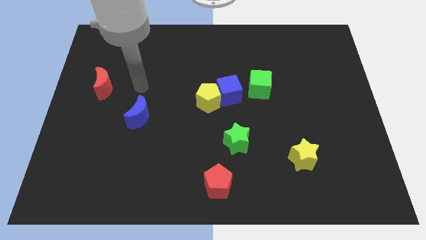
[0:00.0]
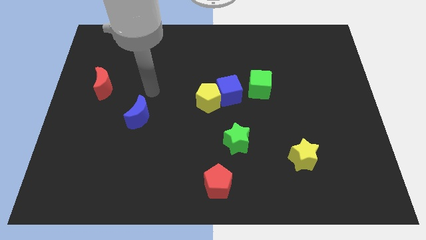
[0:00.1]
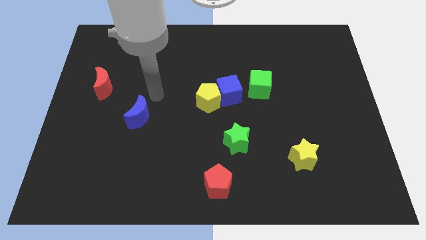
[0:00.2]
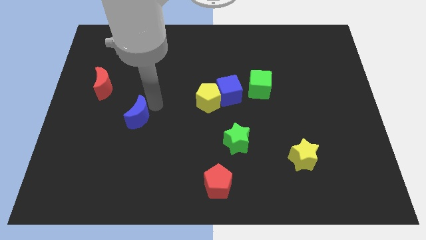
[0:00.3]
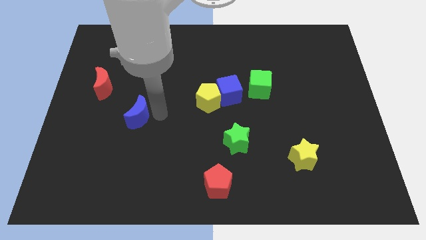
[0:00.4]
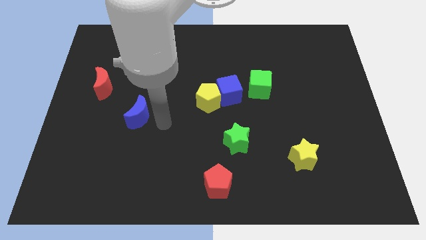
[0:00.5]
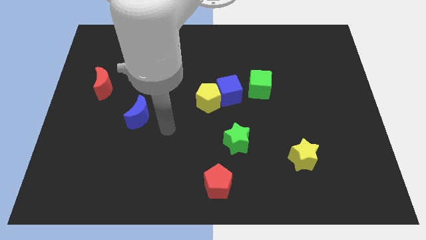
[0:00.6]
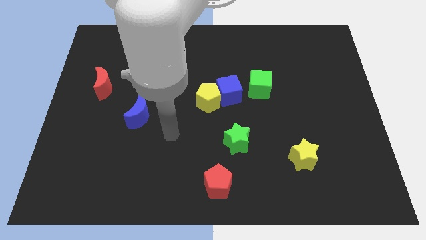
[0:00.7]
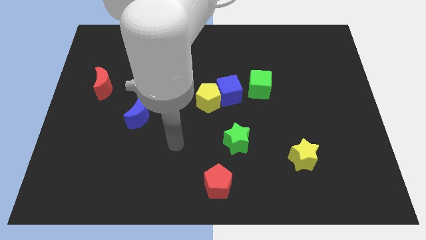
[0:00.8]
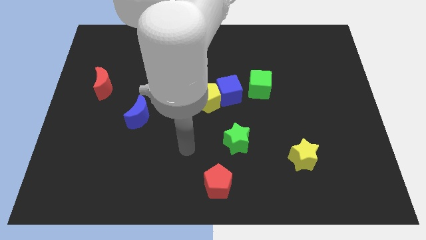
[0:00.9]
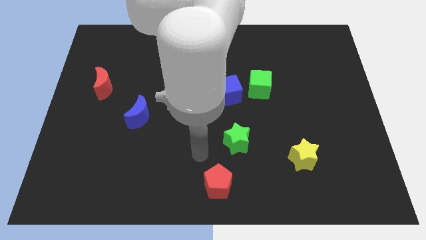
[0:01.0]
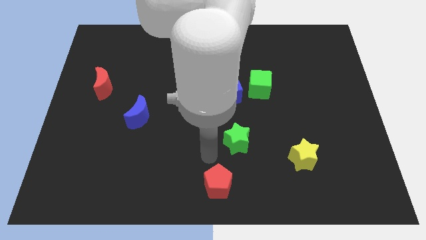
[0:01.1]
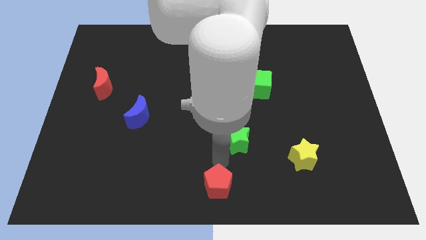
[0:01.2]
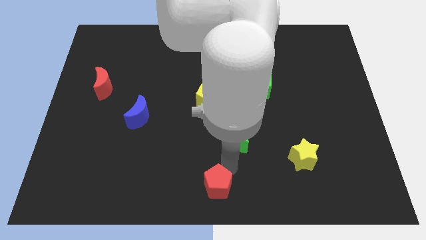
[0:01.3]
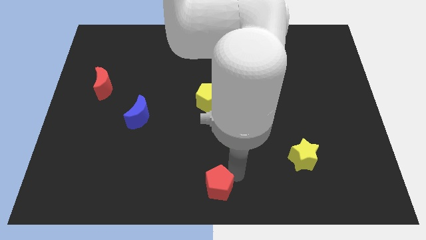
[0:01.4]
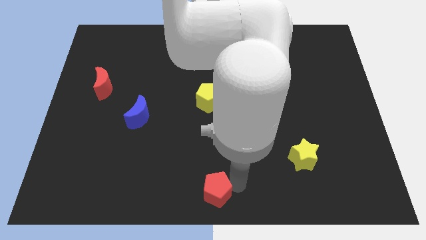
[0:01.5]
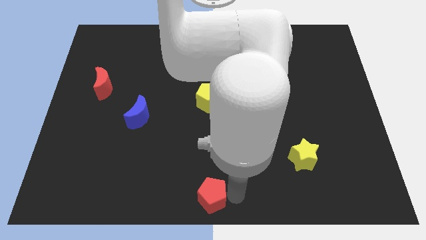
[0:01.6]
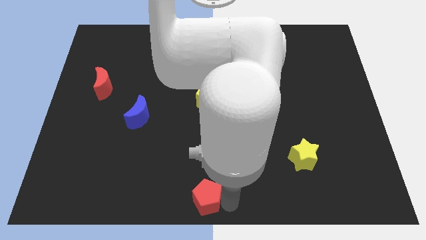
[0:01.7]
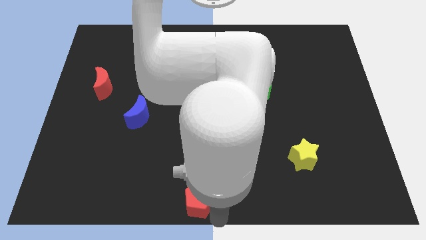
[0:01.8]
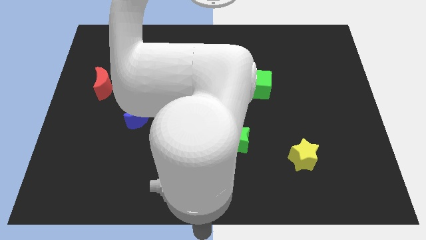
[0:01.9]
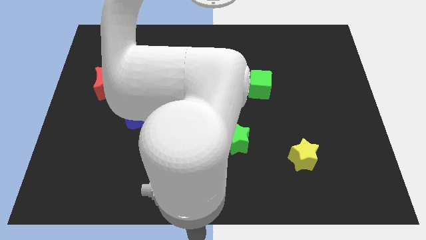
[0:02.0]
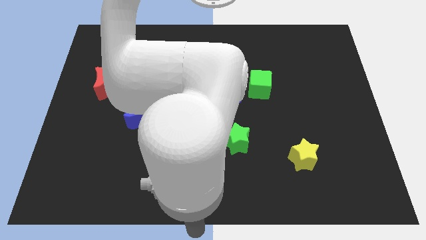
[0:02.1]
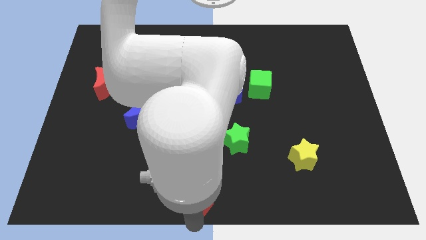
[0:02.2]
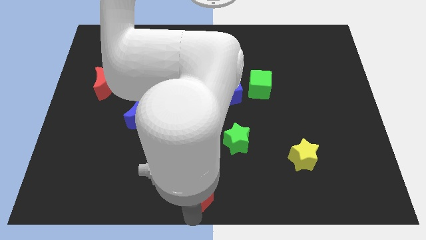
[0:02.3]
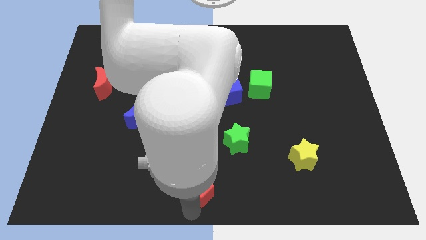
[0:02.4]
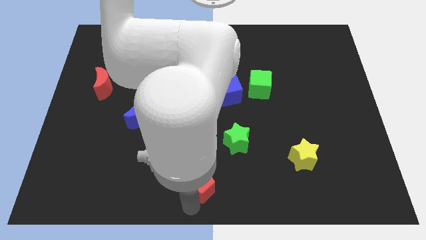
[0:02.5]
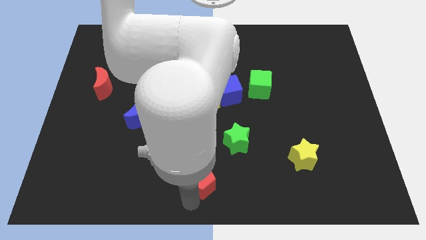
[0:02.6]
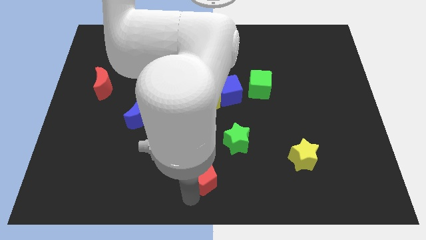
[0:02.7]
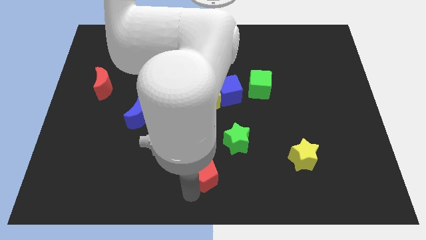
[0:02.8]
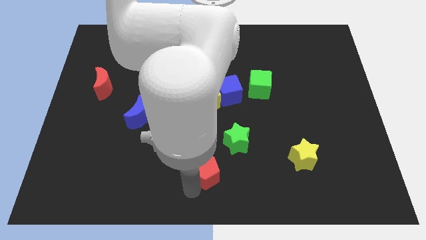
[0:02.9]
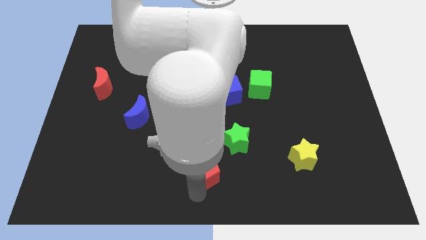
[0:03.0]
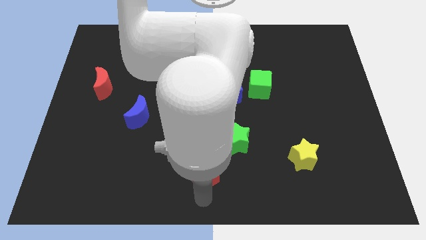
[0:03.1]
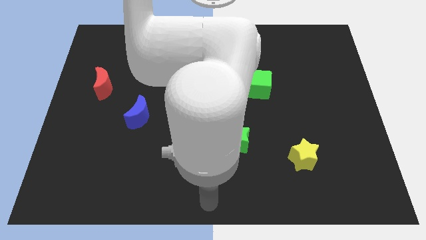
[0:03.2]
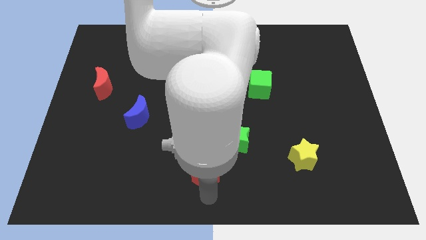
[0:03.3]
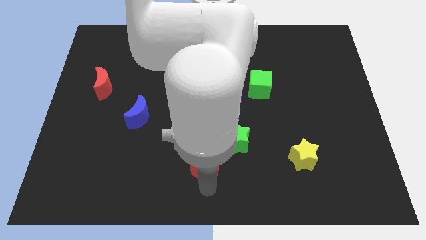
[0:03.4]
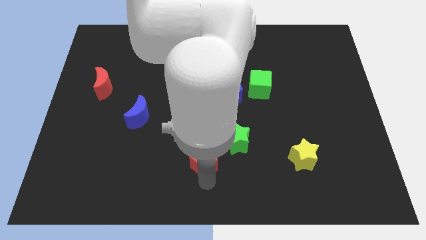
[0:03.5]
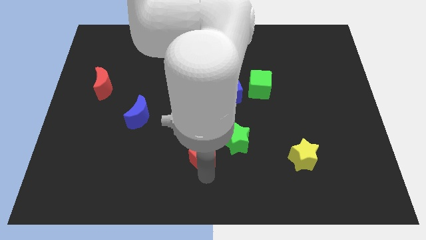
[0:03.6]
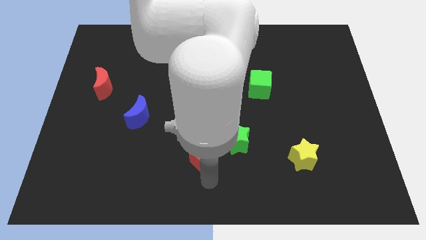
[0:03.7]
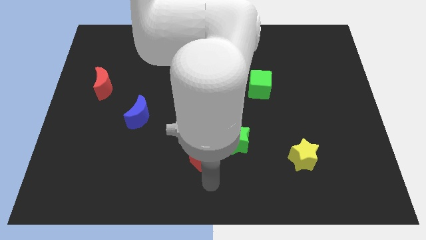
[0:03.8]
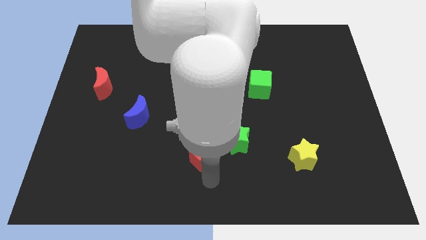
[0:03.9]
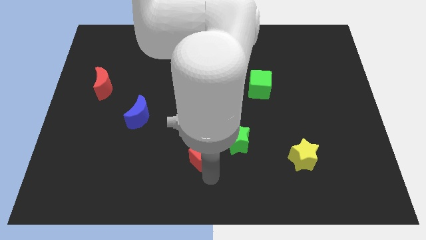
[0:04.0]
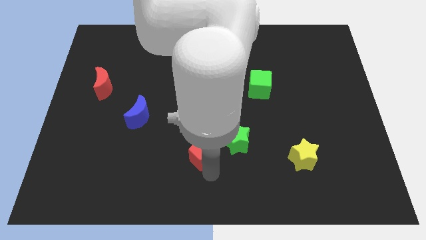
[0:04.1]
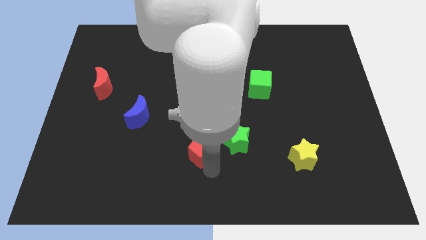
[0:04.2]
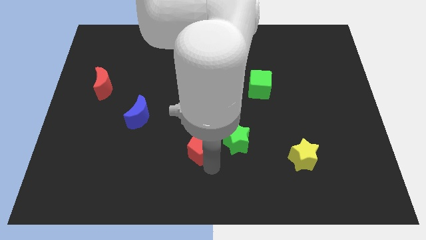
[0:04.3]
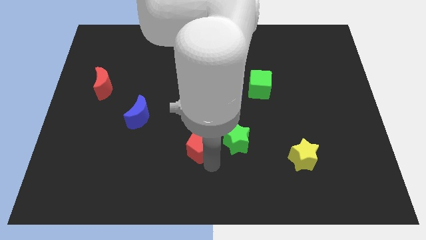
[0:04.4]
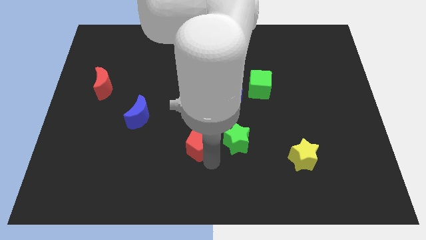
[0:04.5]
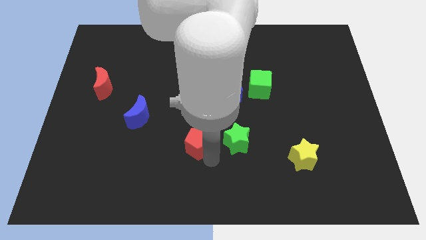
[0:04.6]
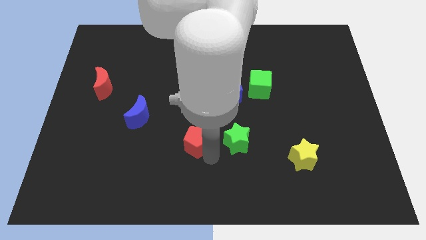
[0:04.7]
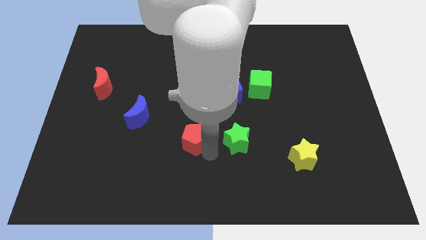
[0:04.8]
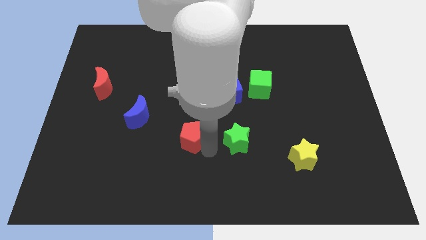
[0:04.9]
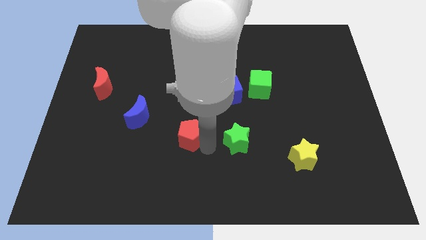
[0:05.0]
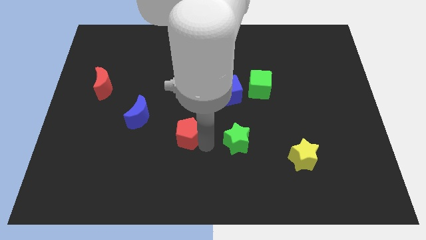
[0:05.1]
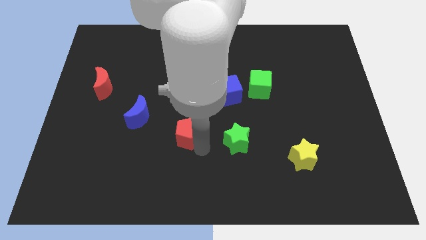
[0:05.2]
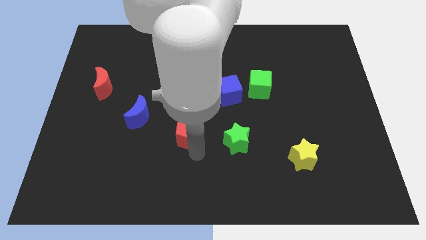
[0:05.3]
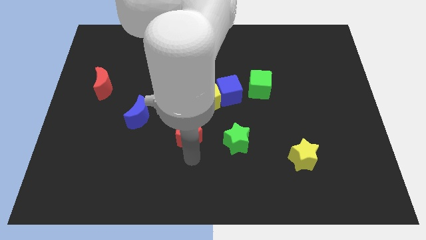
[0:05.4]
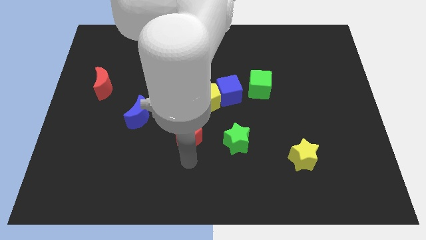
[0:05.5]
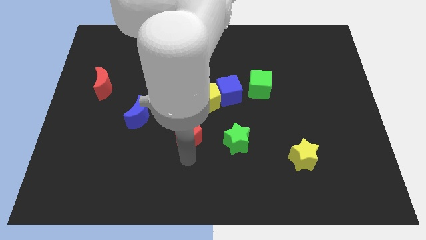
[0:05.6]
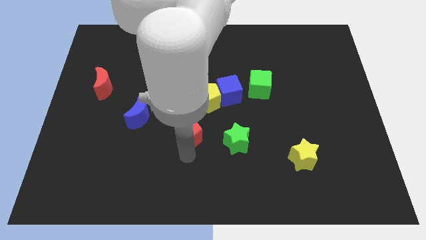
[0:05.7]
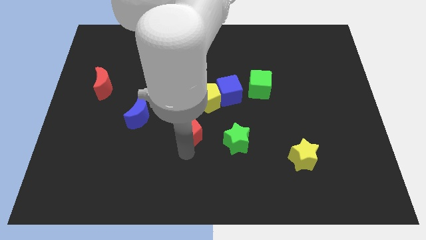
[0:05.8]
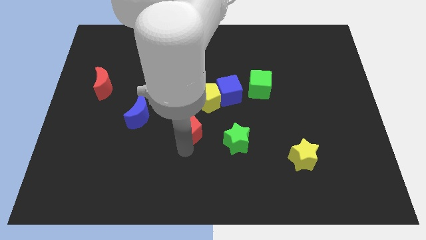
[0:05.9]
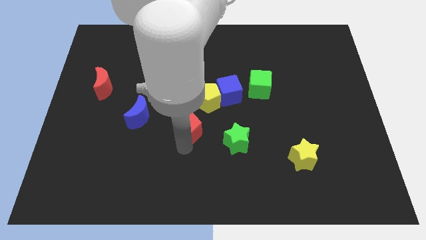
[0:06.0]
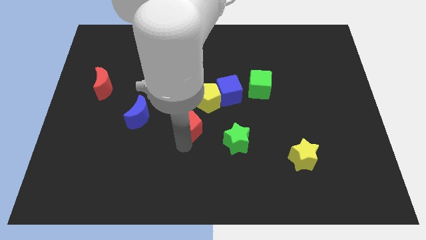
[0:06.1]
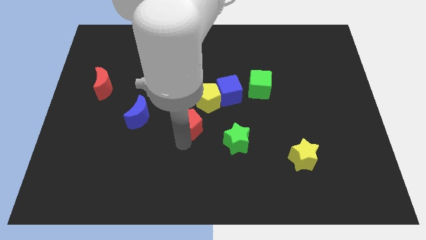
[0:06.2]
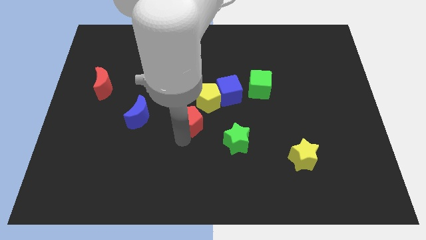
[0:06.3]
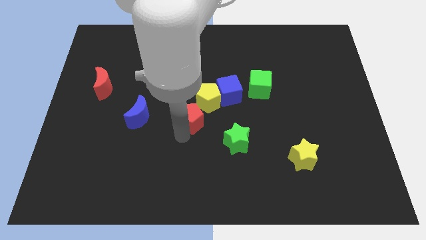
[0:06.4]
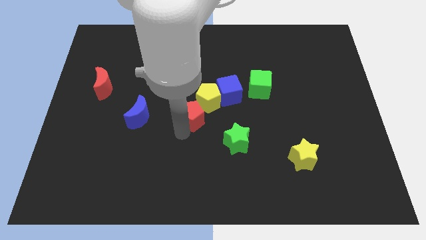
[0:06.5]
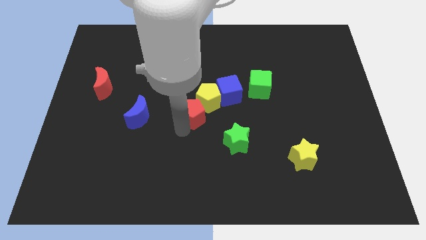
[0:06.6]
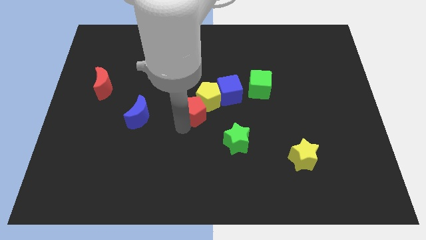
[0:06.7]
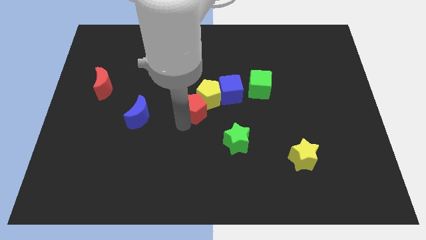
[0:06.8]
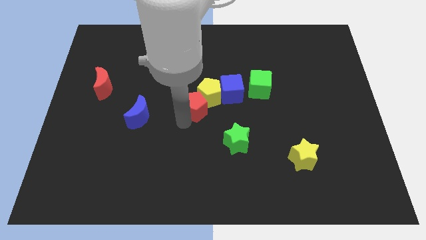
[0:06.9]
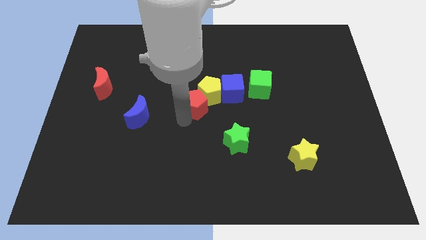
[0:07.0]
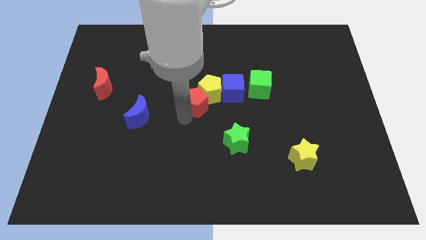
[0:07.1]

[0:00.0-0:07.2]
move the red pentagon up

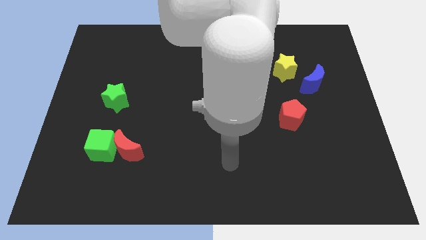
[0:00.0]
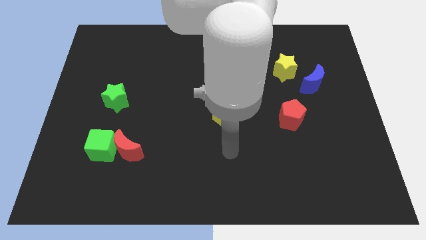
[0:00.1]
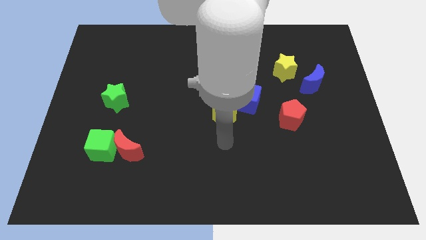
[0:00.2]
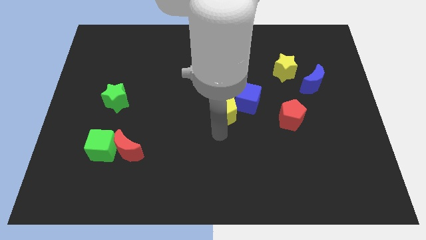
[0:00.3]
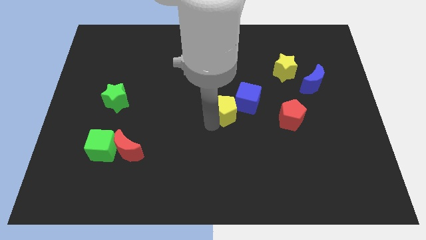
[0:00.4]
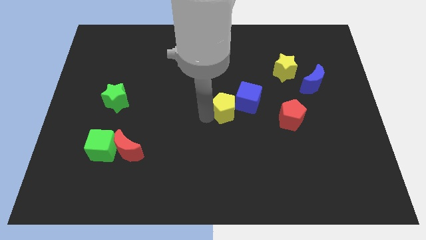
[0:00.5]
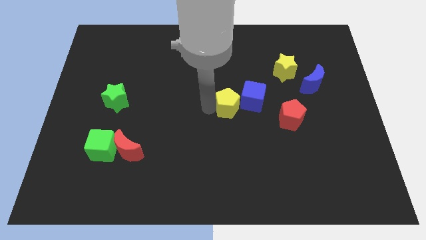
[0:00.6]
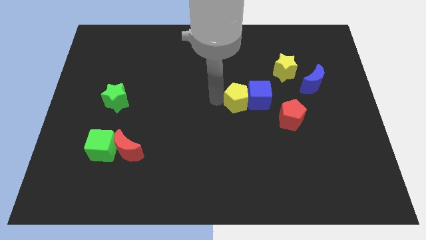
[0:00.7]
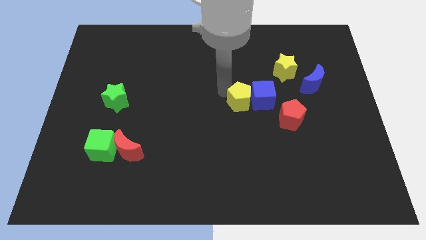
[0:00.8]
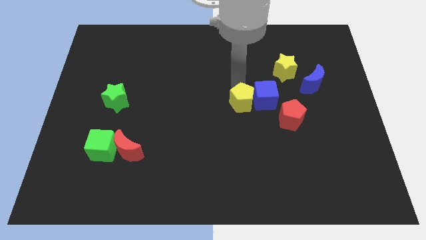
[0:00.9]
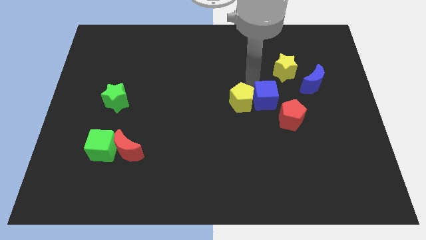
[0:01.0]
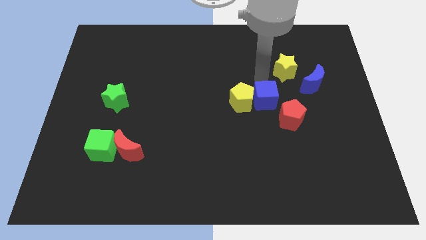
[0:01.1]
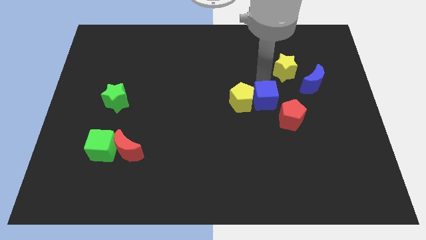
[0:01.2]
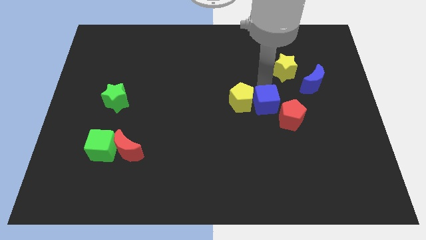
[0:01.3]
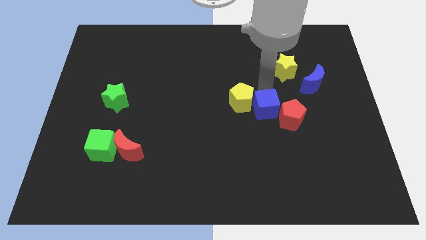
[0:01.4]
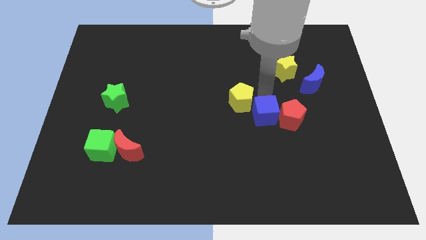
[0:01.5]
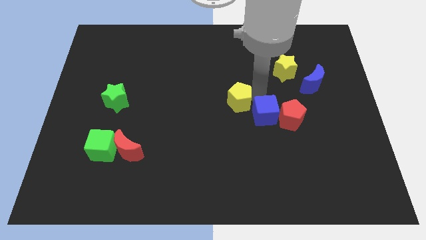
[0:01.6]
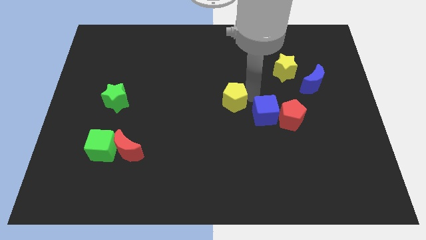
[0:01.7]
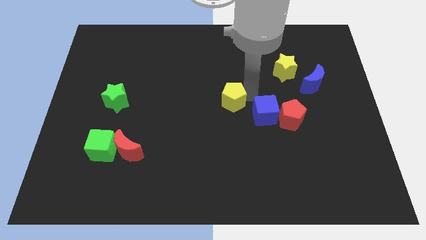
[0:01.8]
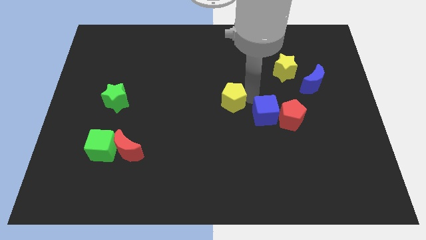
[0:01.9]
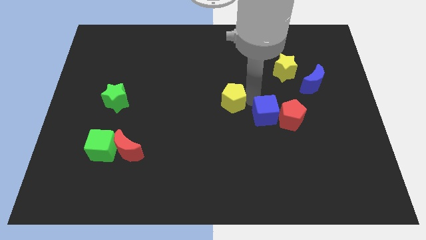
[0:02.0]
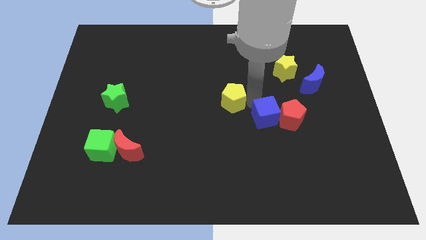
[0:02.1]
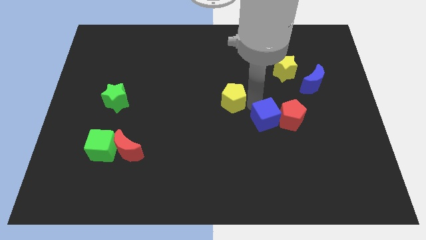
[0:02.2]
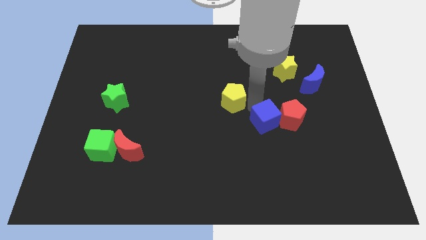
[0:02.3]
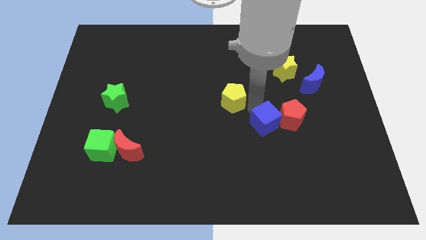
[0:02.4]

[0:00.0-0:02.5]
slightly move the blue cube down and right diagonally
